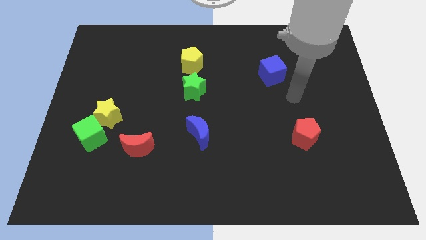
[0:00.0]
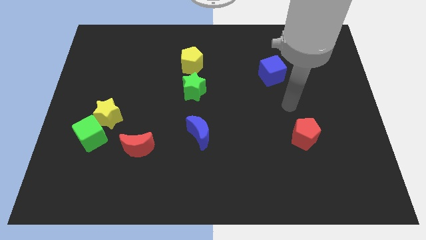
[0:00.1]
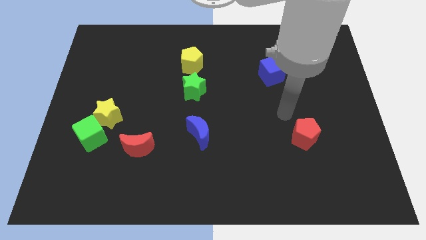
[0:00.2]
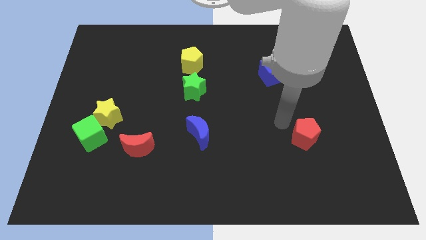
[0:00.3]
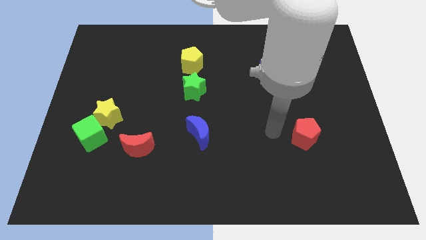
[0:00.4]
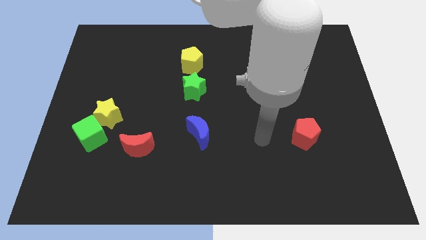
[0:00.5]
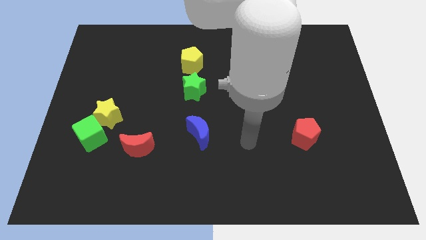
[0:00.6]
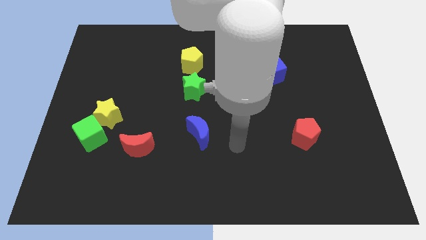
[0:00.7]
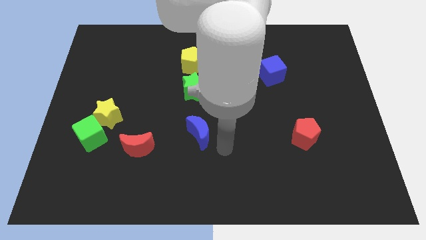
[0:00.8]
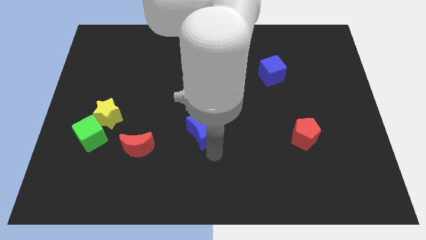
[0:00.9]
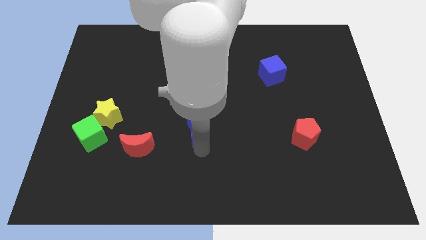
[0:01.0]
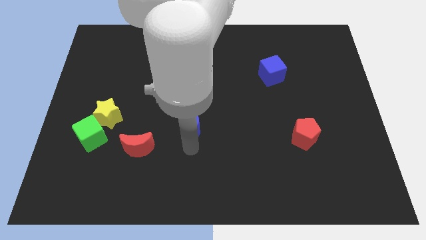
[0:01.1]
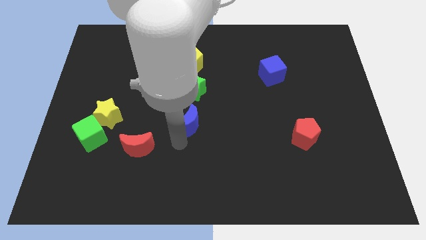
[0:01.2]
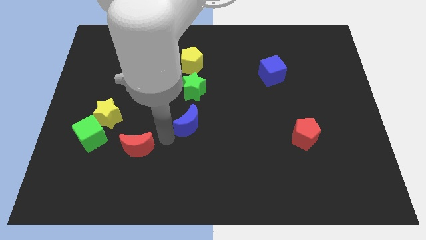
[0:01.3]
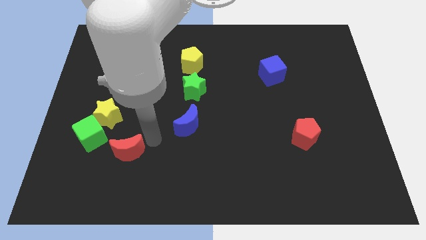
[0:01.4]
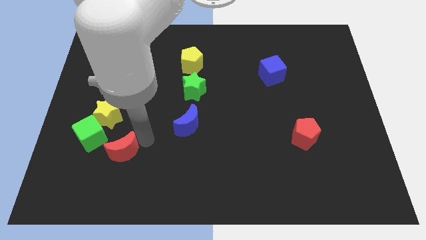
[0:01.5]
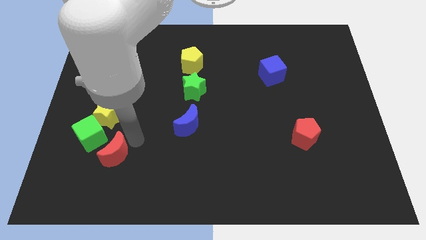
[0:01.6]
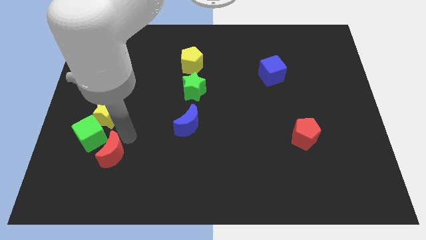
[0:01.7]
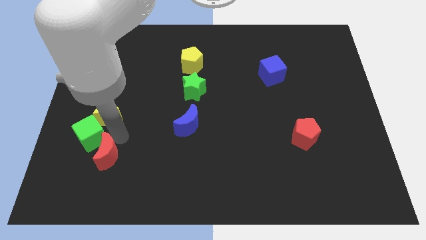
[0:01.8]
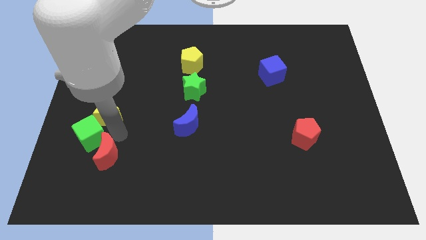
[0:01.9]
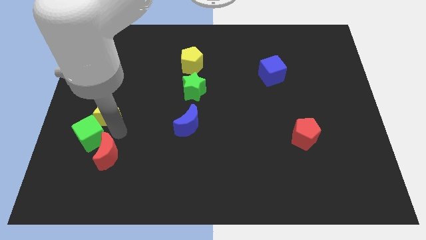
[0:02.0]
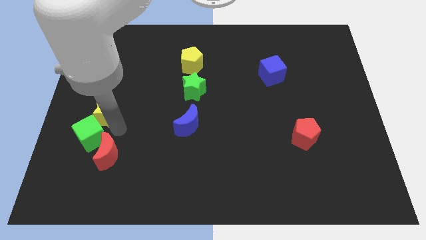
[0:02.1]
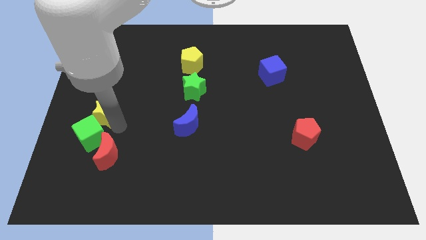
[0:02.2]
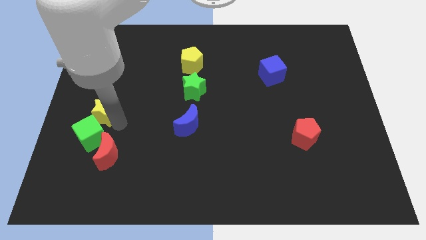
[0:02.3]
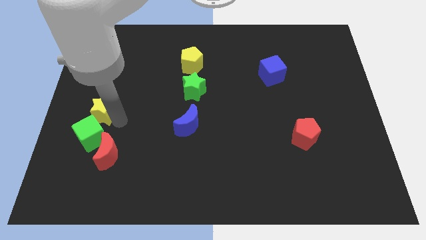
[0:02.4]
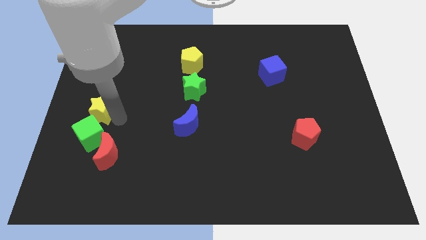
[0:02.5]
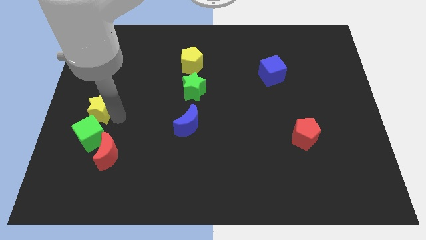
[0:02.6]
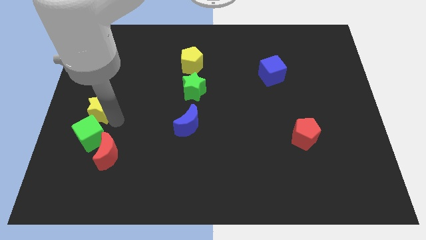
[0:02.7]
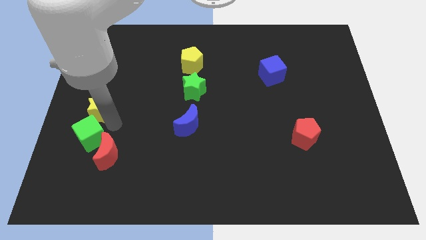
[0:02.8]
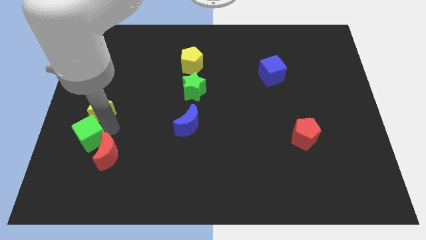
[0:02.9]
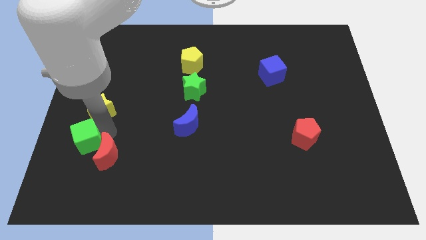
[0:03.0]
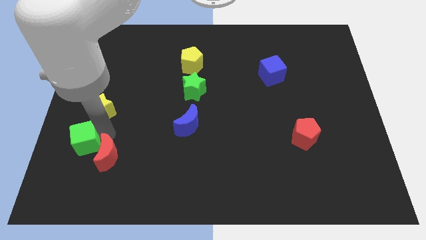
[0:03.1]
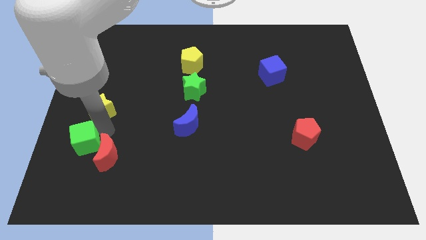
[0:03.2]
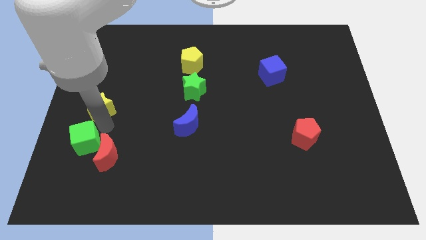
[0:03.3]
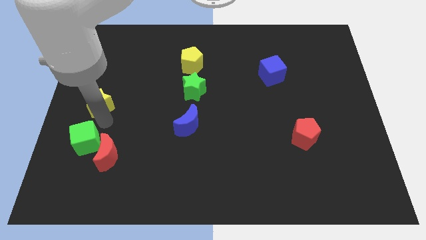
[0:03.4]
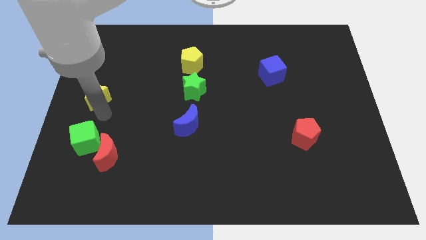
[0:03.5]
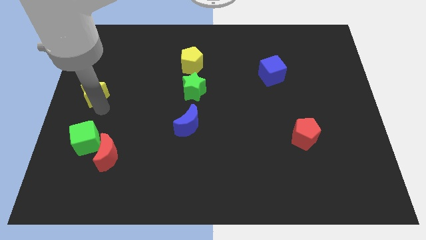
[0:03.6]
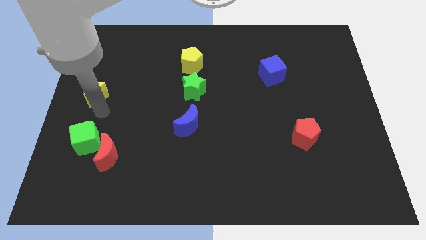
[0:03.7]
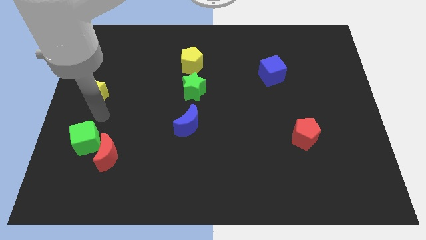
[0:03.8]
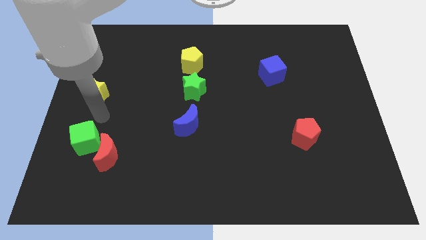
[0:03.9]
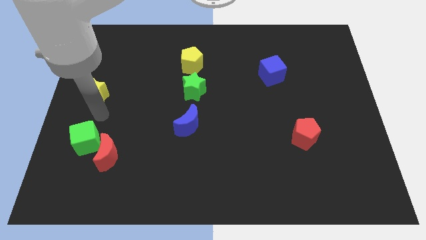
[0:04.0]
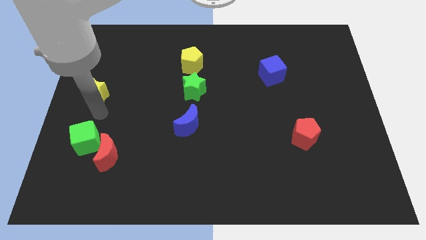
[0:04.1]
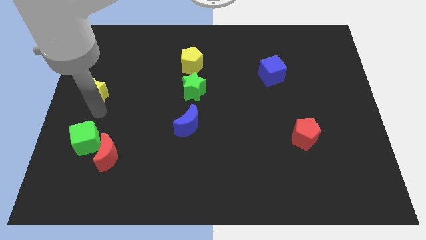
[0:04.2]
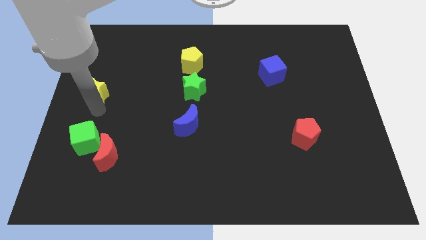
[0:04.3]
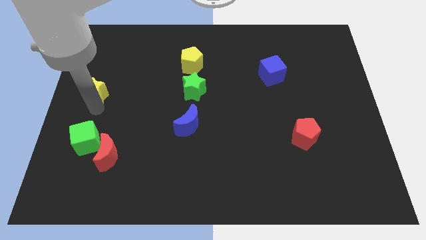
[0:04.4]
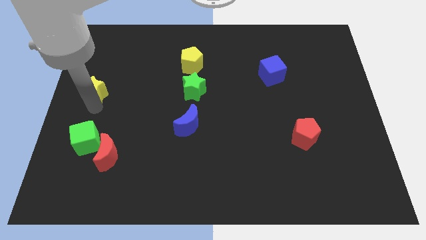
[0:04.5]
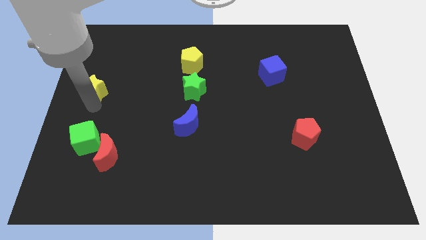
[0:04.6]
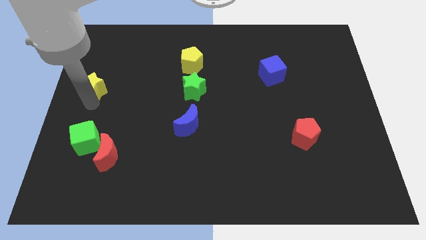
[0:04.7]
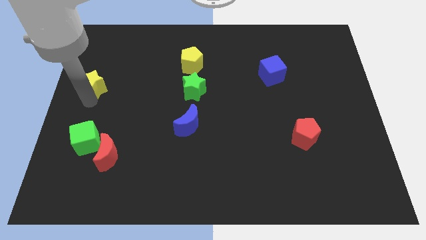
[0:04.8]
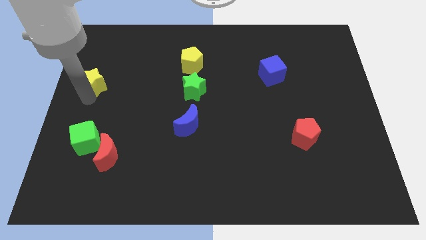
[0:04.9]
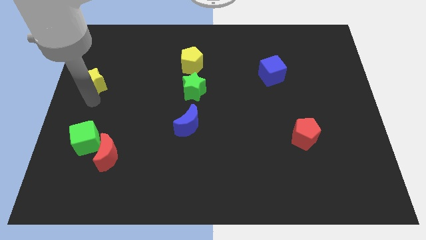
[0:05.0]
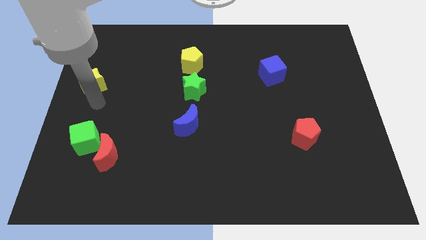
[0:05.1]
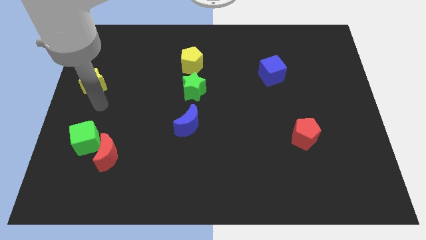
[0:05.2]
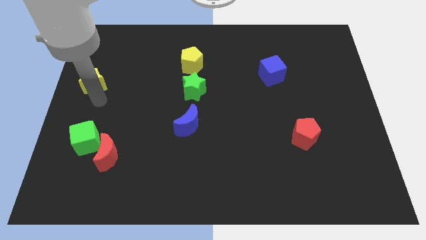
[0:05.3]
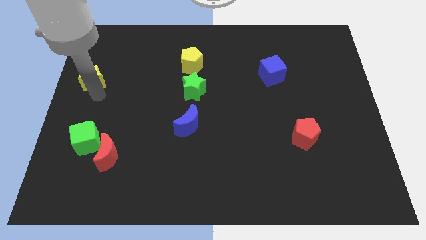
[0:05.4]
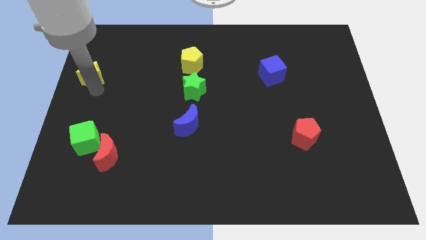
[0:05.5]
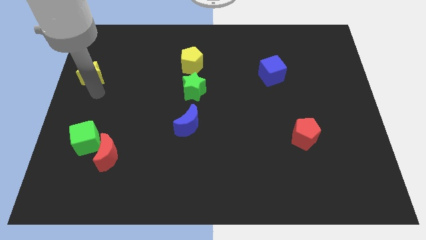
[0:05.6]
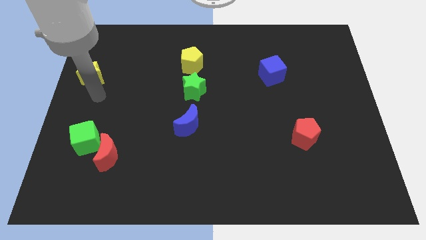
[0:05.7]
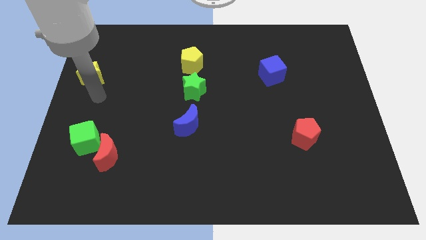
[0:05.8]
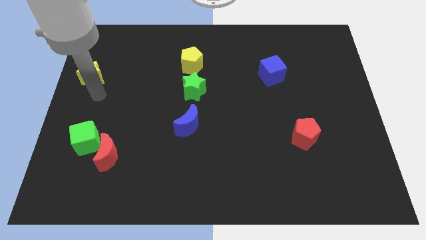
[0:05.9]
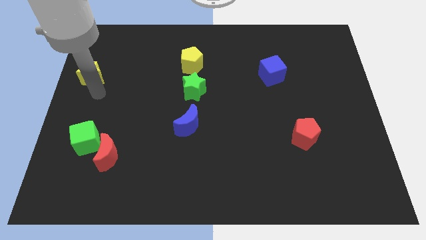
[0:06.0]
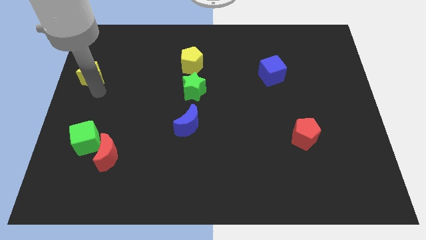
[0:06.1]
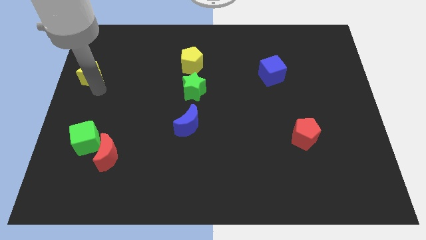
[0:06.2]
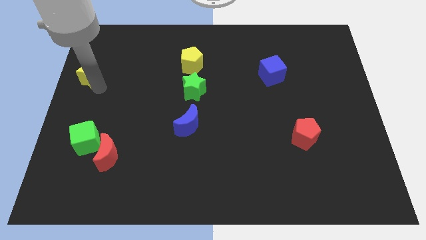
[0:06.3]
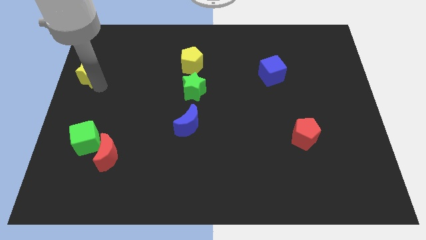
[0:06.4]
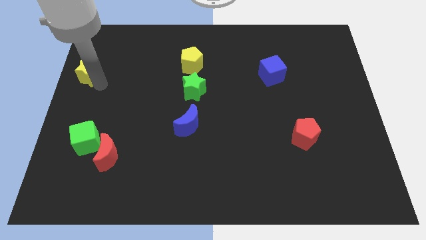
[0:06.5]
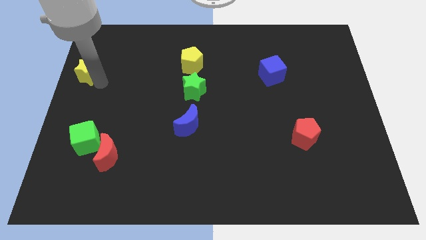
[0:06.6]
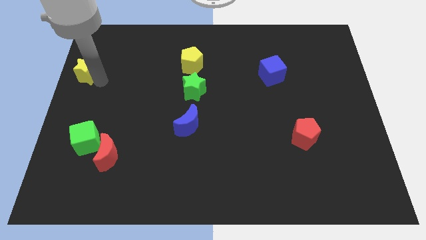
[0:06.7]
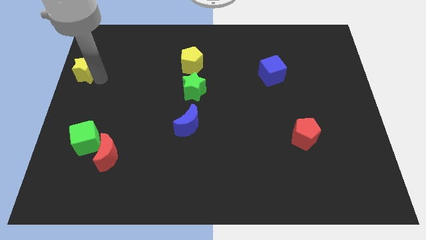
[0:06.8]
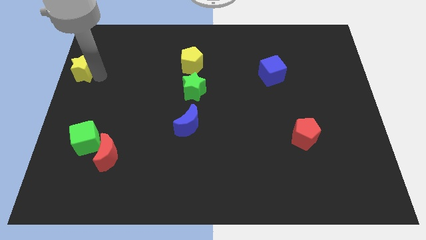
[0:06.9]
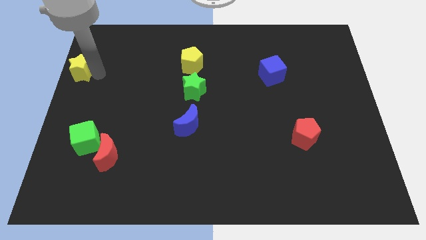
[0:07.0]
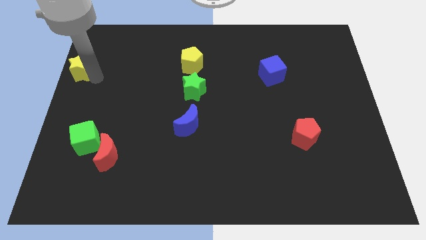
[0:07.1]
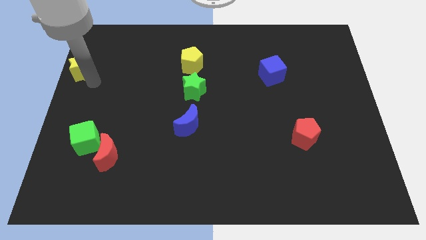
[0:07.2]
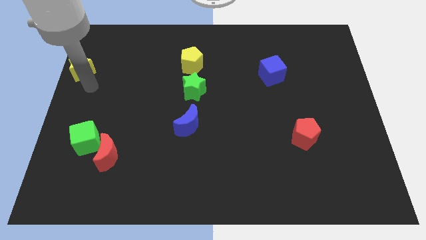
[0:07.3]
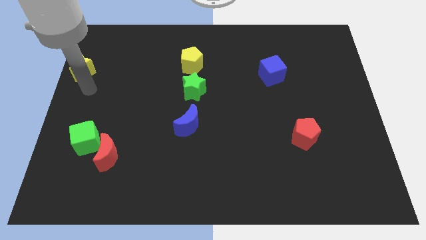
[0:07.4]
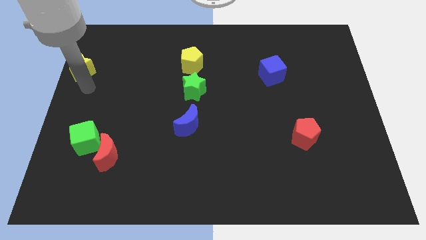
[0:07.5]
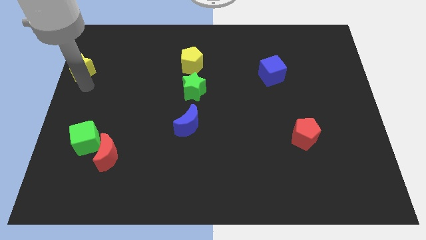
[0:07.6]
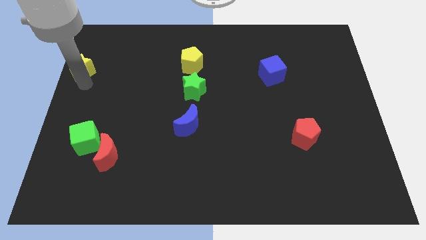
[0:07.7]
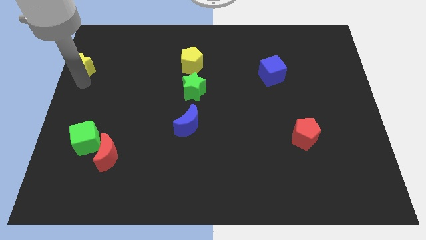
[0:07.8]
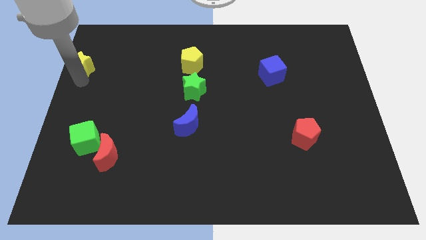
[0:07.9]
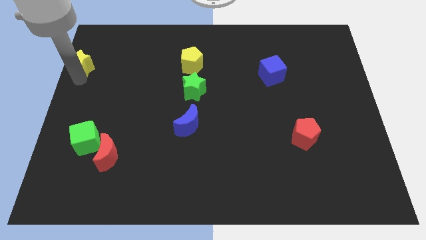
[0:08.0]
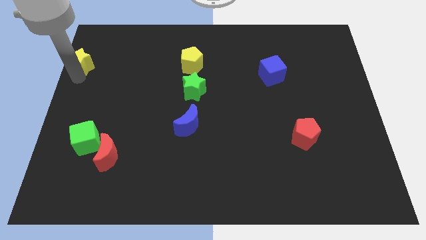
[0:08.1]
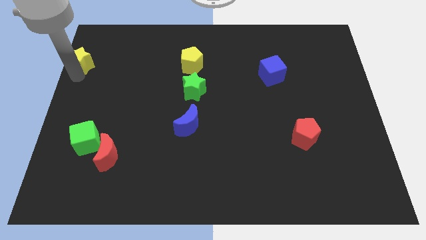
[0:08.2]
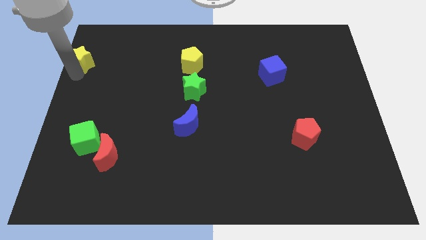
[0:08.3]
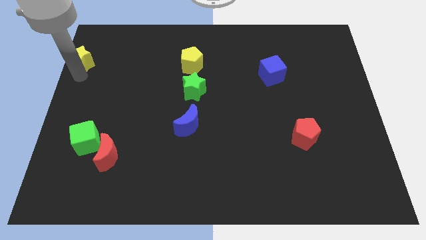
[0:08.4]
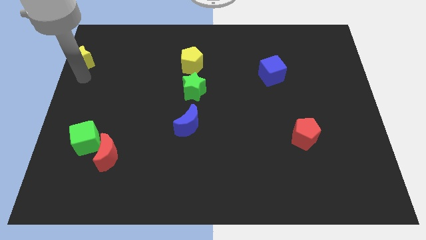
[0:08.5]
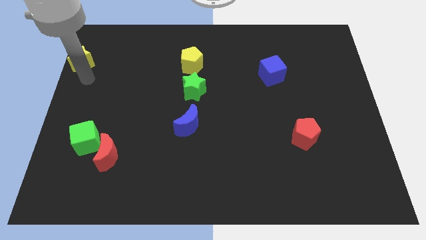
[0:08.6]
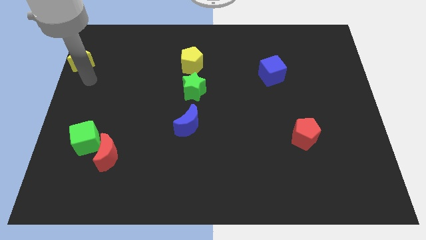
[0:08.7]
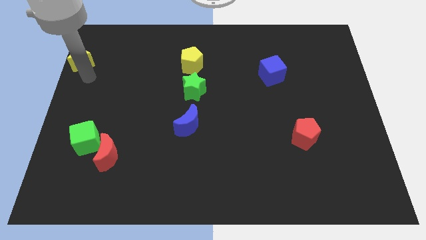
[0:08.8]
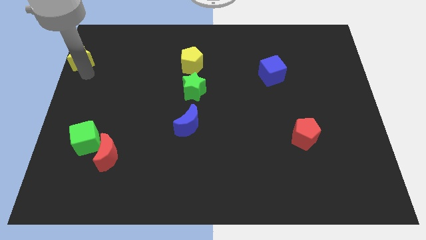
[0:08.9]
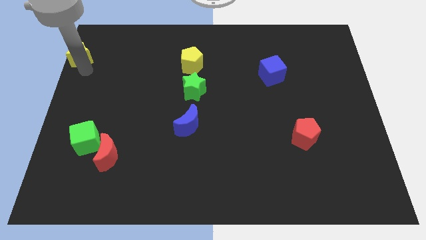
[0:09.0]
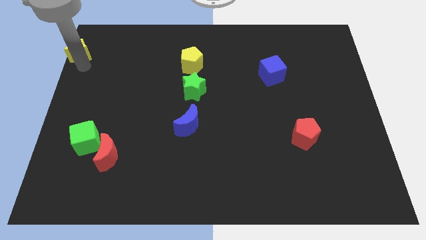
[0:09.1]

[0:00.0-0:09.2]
move the yellow star to the top left of the board
